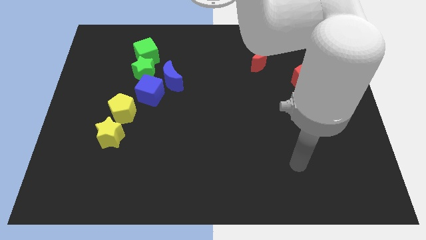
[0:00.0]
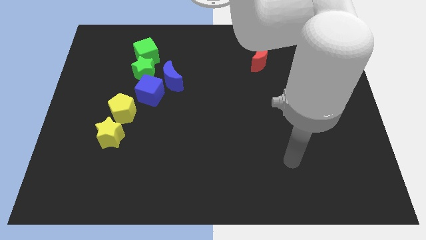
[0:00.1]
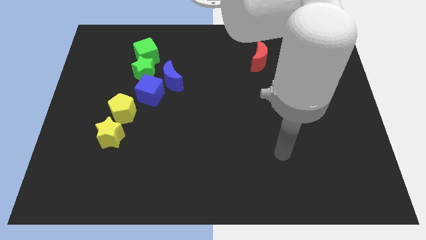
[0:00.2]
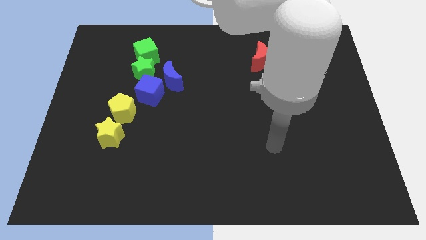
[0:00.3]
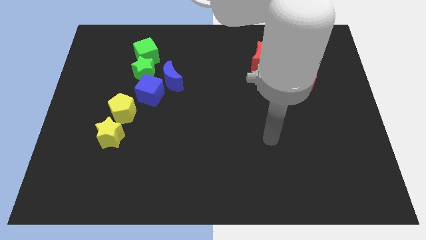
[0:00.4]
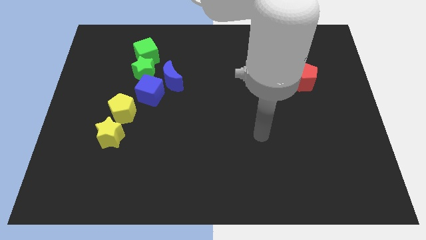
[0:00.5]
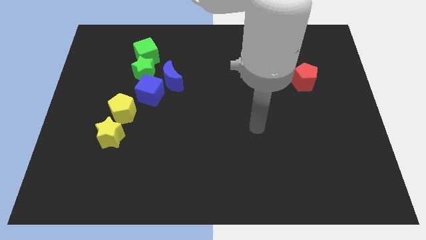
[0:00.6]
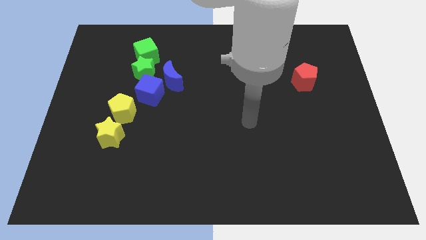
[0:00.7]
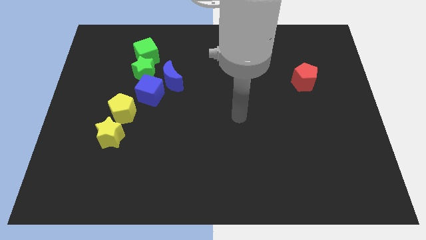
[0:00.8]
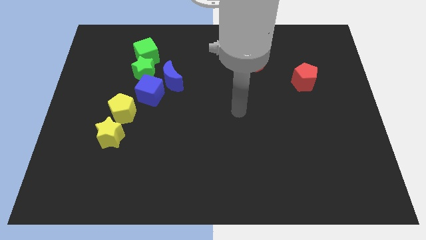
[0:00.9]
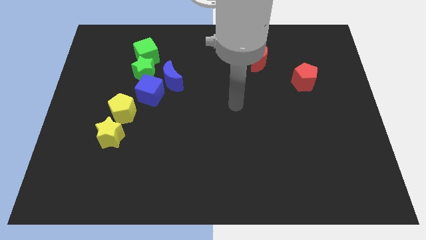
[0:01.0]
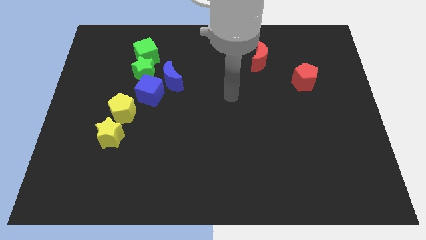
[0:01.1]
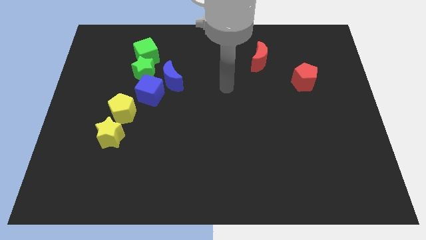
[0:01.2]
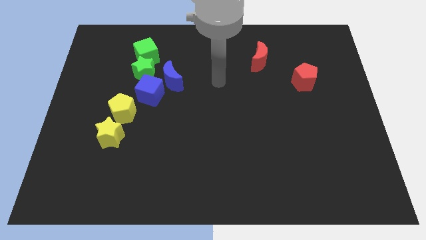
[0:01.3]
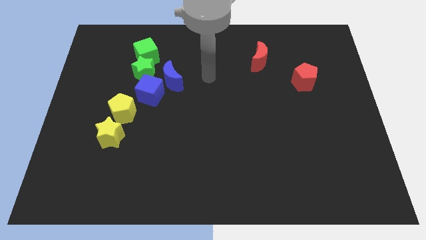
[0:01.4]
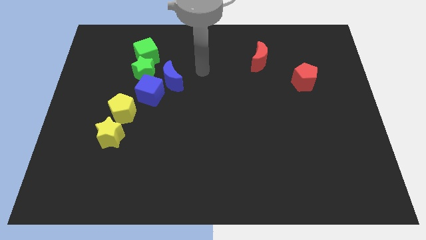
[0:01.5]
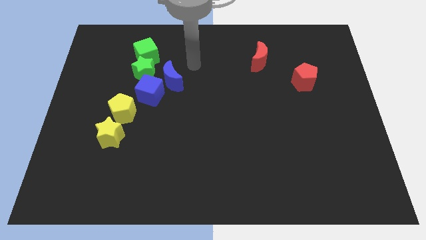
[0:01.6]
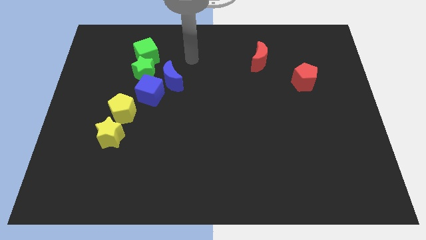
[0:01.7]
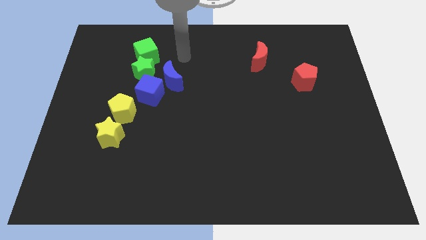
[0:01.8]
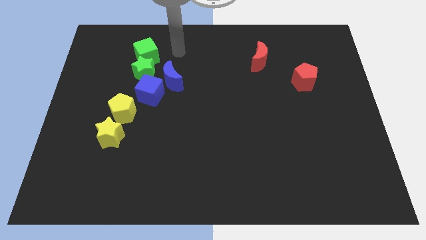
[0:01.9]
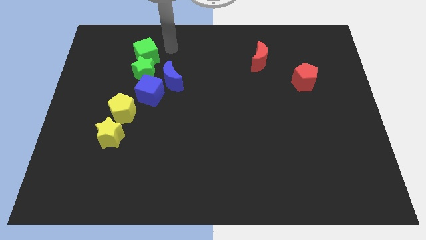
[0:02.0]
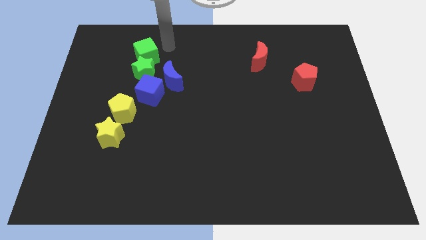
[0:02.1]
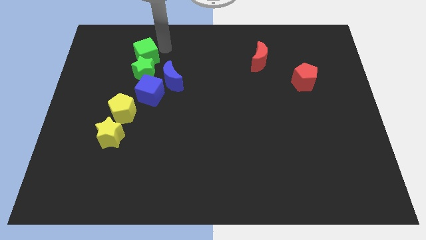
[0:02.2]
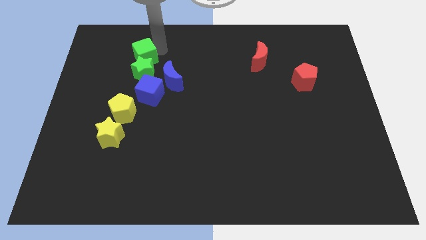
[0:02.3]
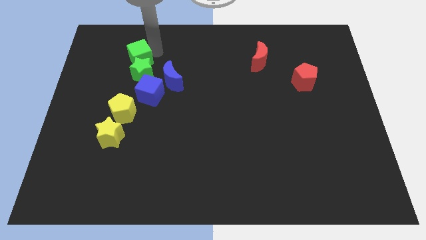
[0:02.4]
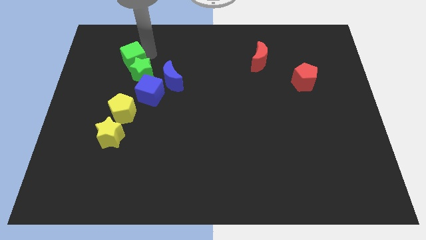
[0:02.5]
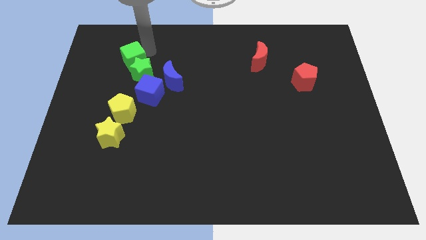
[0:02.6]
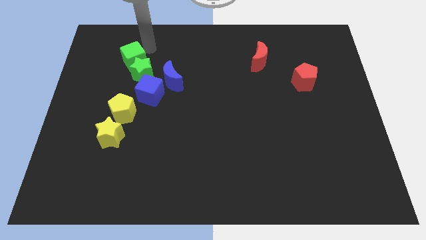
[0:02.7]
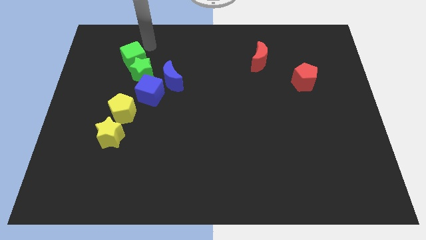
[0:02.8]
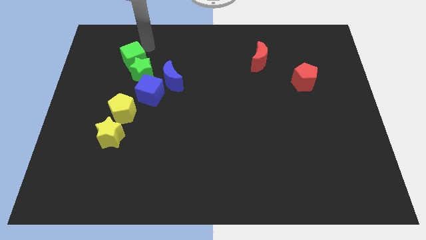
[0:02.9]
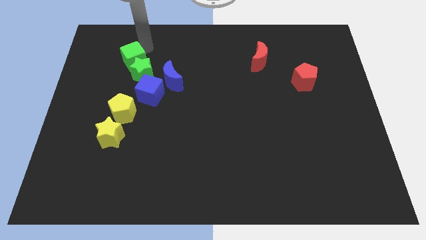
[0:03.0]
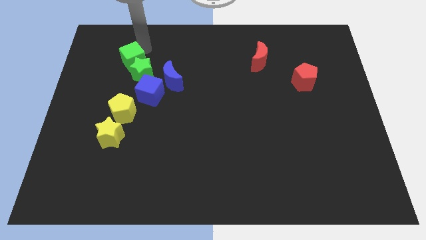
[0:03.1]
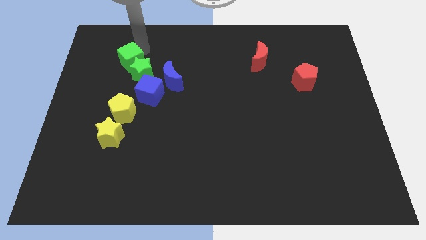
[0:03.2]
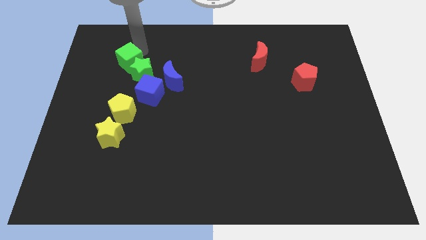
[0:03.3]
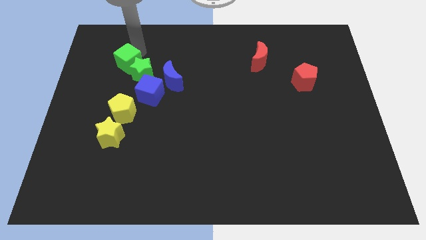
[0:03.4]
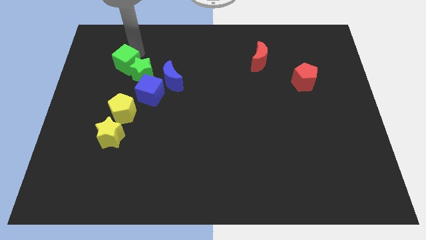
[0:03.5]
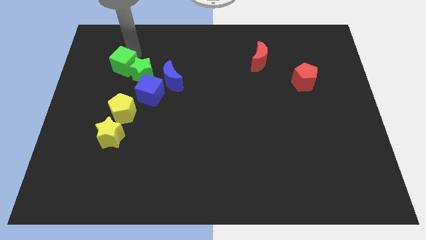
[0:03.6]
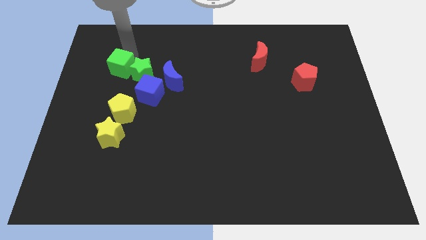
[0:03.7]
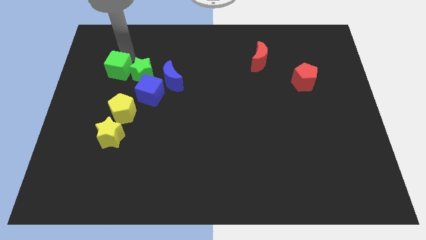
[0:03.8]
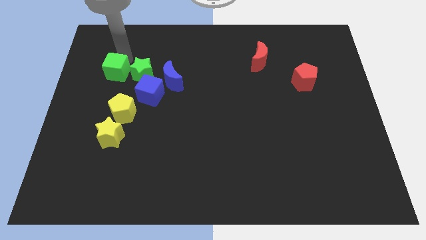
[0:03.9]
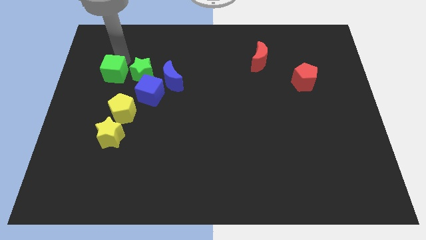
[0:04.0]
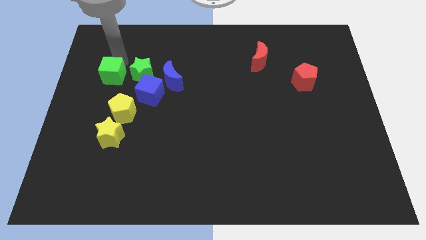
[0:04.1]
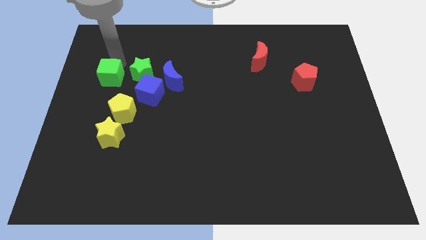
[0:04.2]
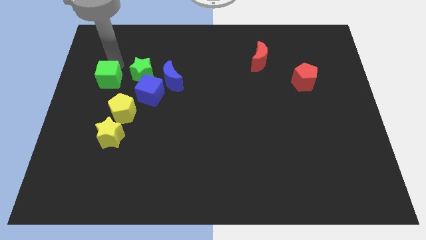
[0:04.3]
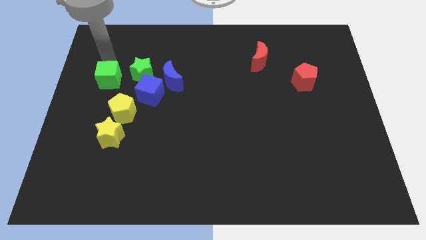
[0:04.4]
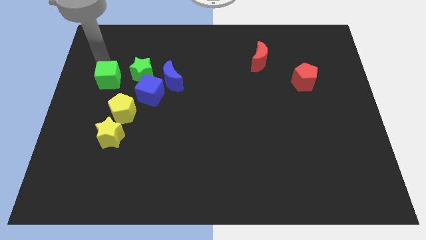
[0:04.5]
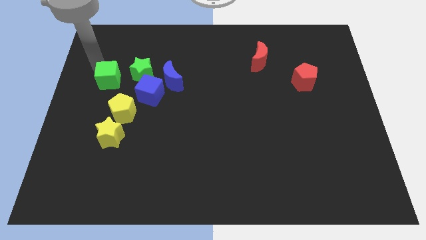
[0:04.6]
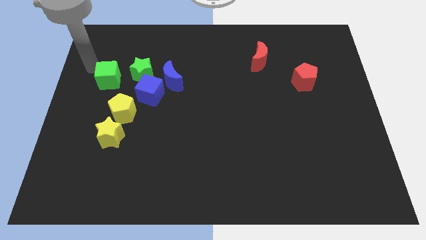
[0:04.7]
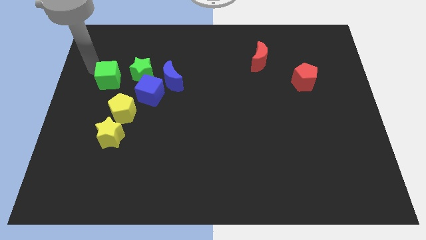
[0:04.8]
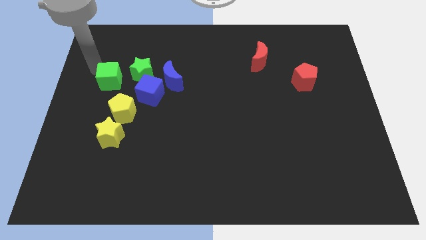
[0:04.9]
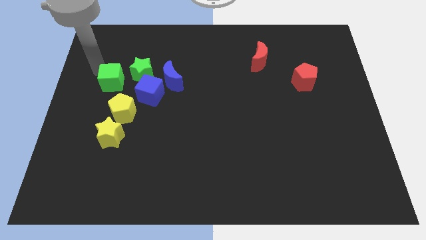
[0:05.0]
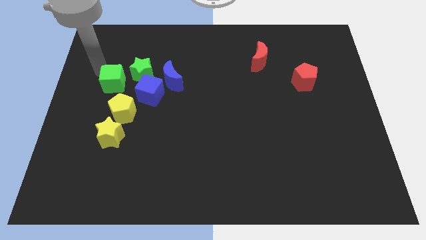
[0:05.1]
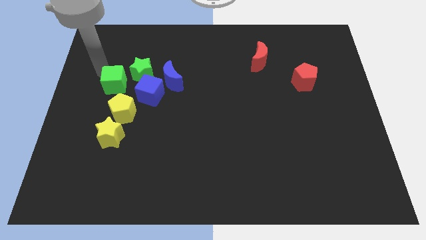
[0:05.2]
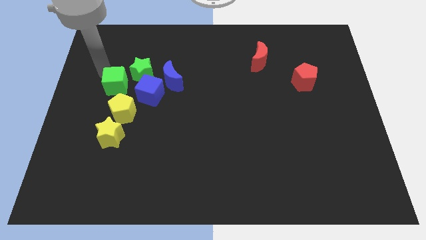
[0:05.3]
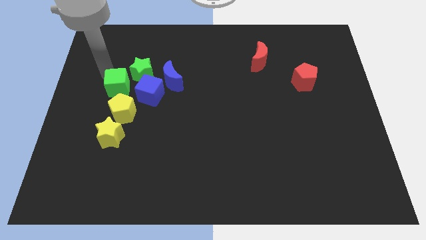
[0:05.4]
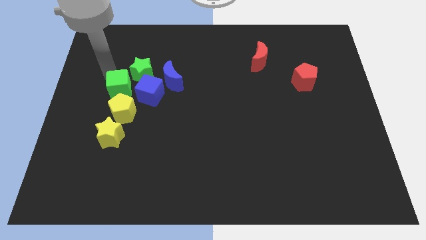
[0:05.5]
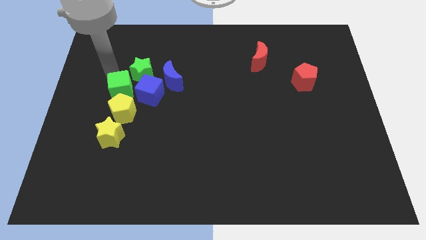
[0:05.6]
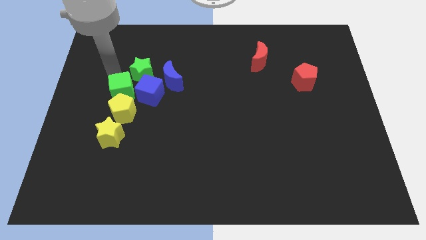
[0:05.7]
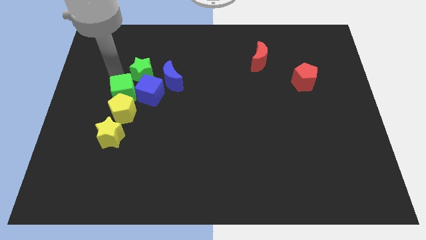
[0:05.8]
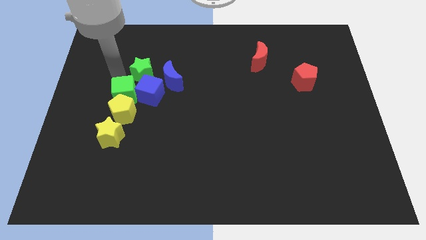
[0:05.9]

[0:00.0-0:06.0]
slide the green cube to the blue cube
